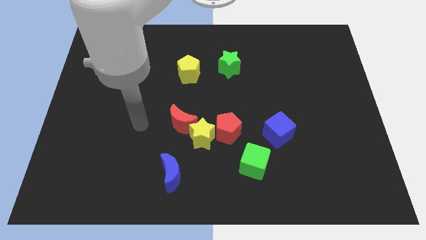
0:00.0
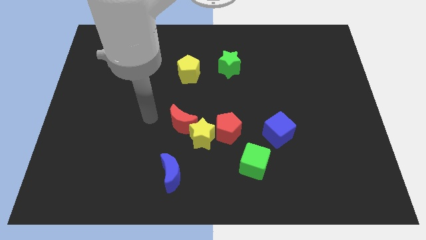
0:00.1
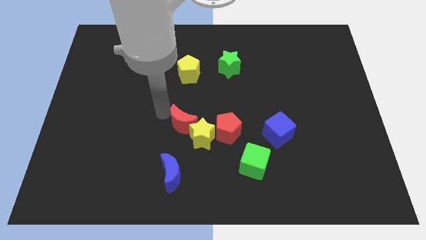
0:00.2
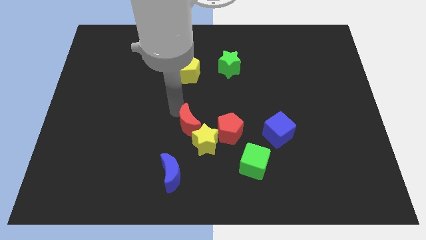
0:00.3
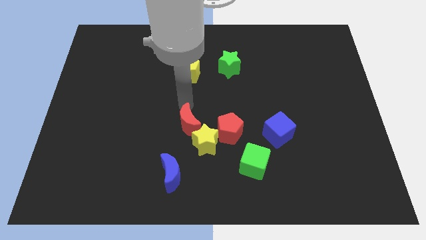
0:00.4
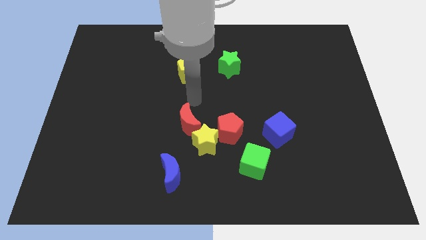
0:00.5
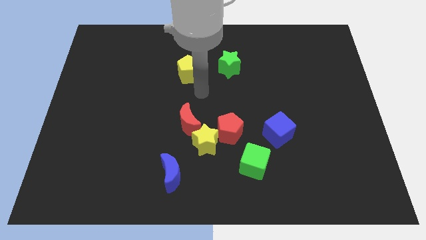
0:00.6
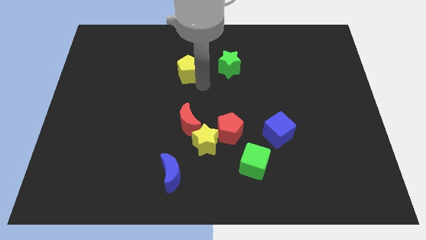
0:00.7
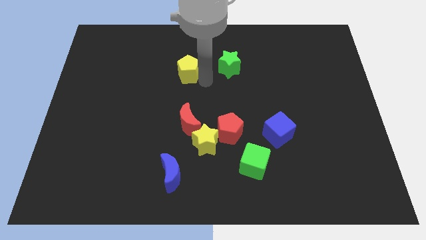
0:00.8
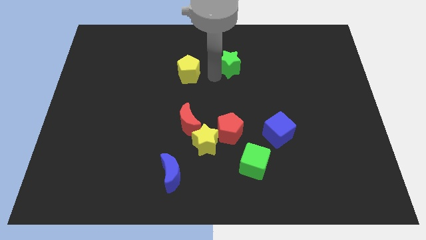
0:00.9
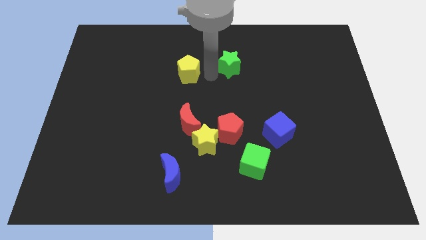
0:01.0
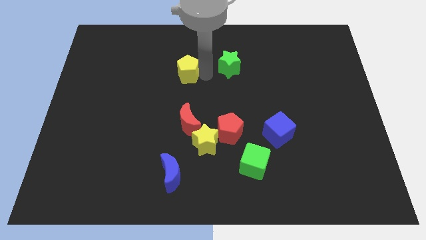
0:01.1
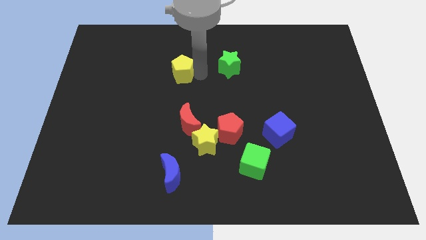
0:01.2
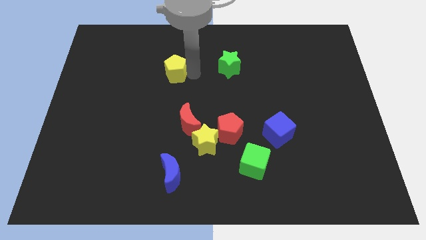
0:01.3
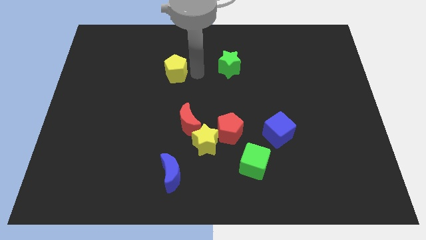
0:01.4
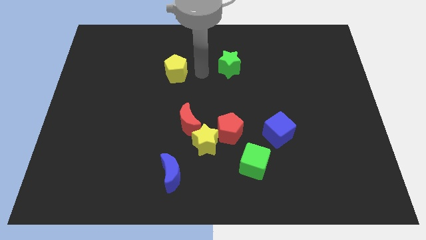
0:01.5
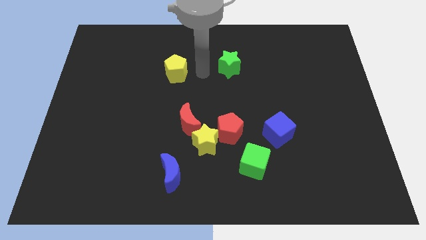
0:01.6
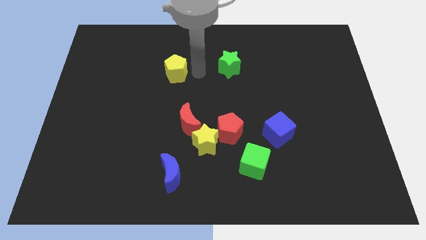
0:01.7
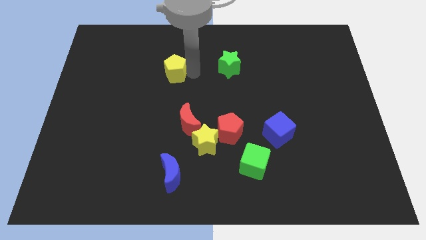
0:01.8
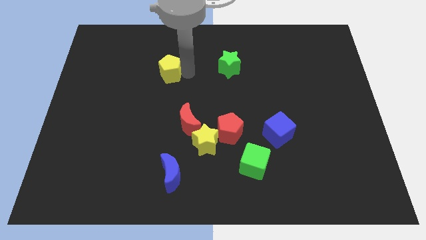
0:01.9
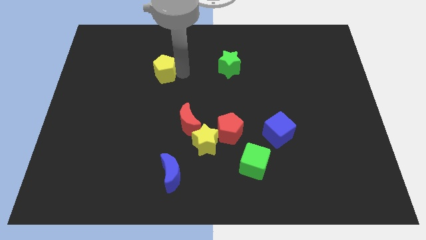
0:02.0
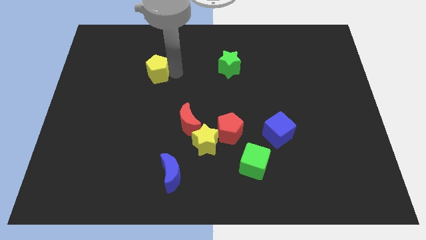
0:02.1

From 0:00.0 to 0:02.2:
push the yellow pentagon a bit to the left

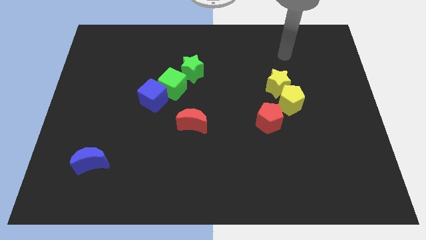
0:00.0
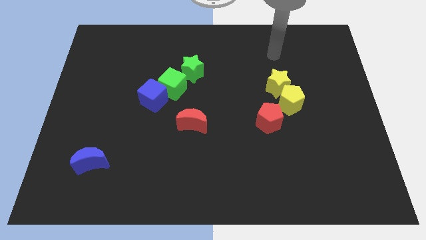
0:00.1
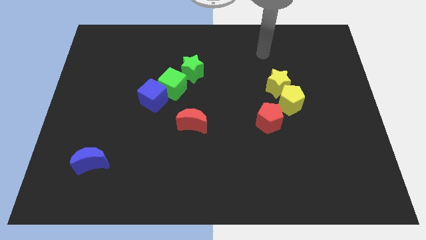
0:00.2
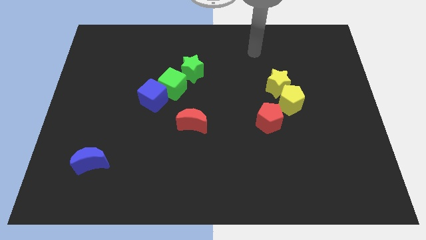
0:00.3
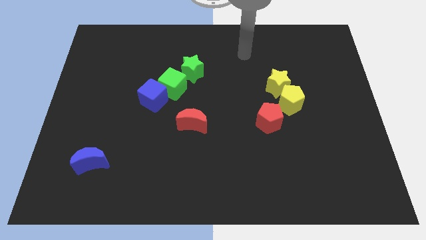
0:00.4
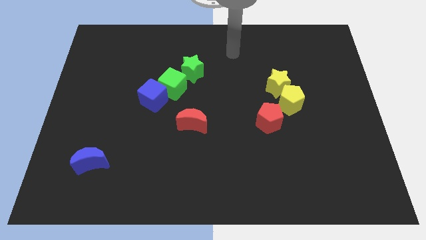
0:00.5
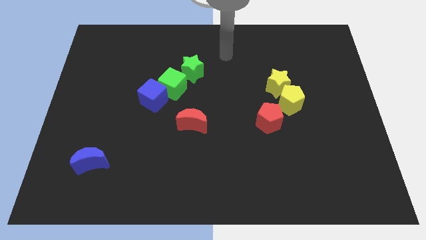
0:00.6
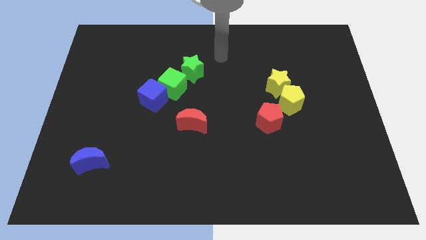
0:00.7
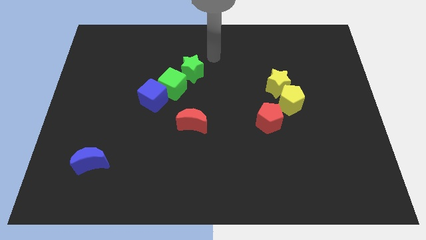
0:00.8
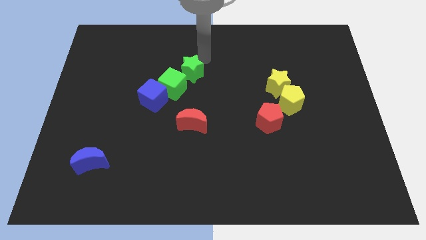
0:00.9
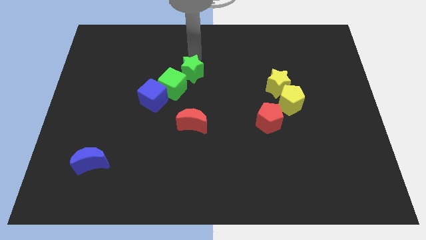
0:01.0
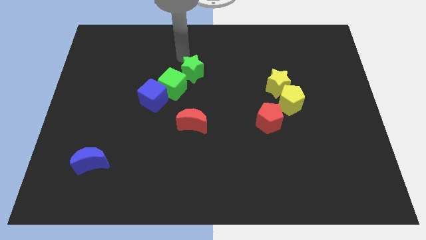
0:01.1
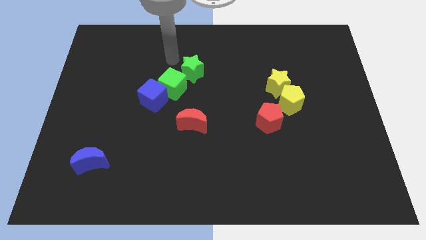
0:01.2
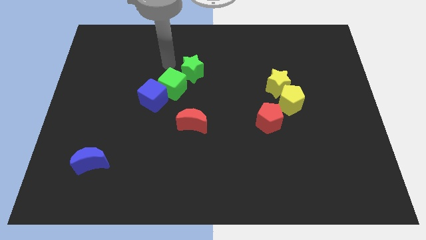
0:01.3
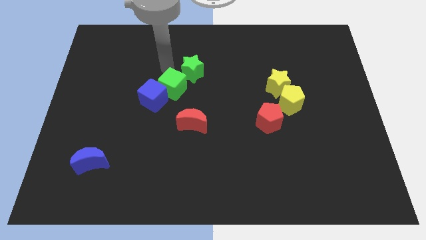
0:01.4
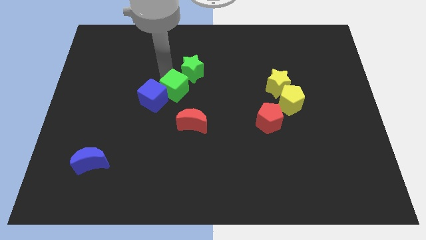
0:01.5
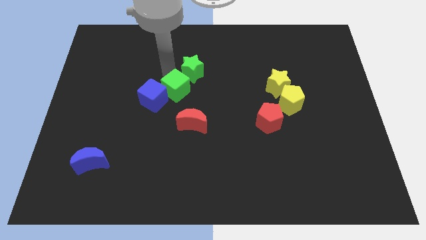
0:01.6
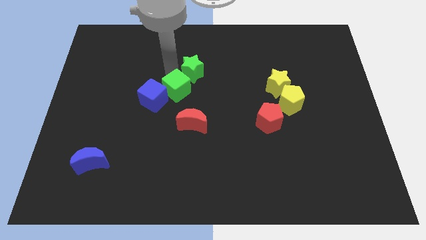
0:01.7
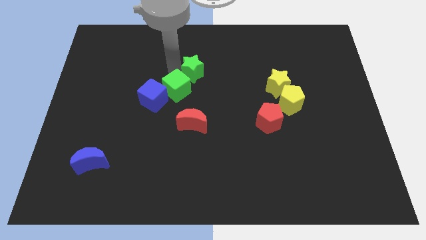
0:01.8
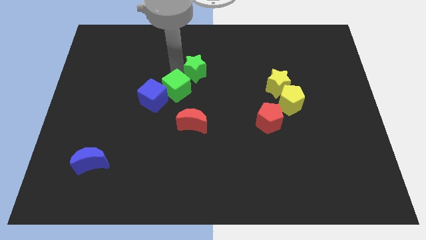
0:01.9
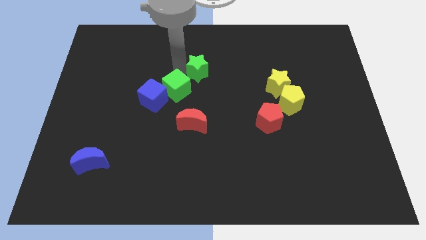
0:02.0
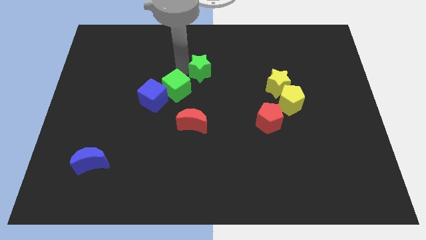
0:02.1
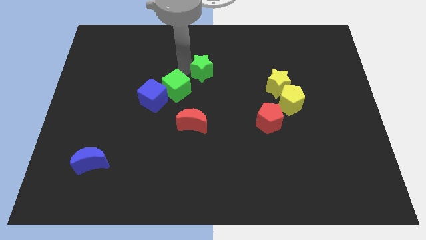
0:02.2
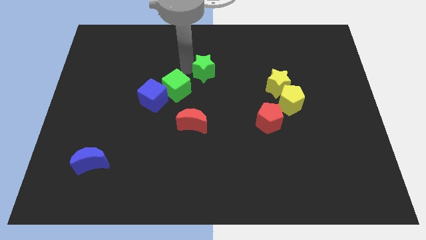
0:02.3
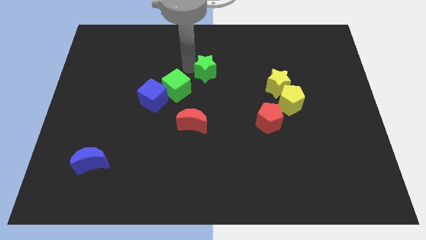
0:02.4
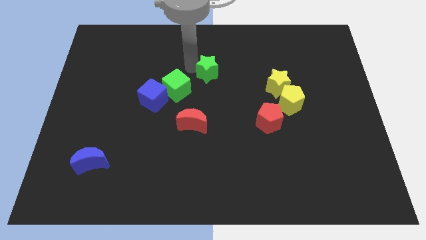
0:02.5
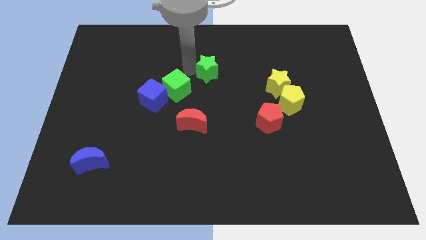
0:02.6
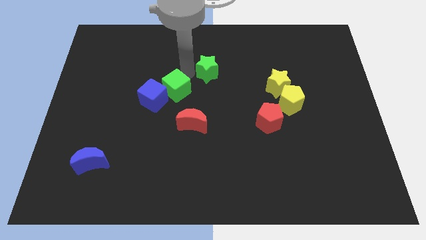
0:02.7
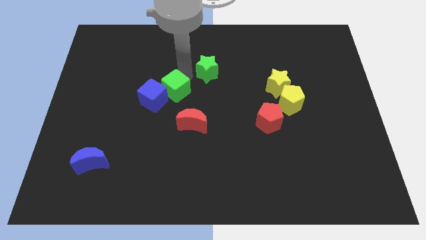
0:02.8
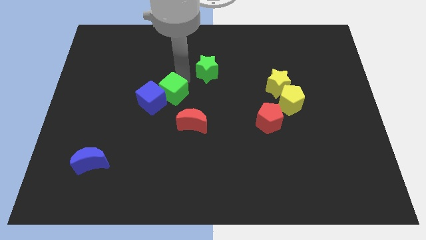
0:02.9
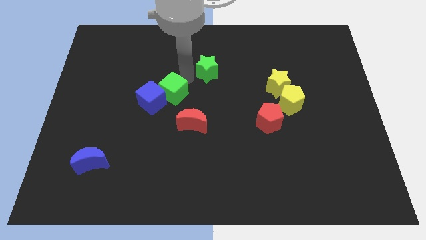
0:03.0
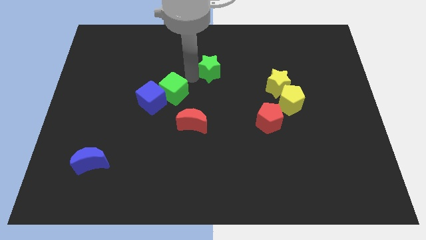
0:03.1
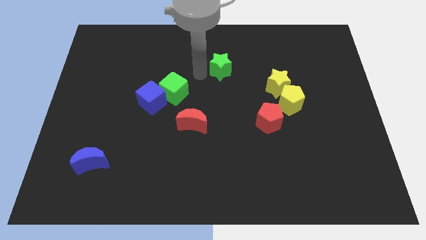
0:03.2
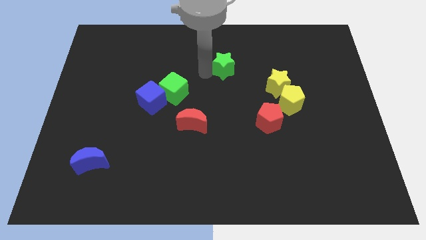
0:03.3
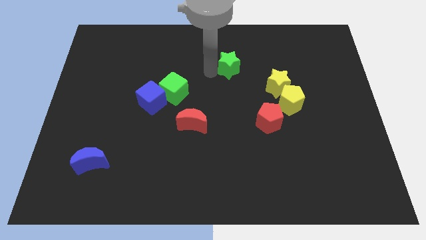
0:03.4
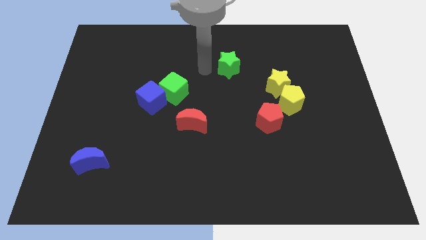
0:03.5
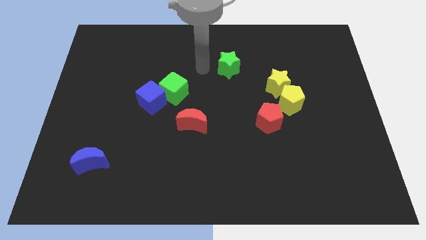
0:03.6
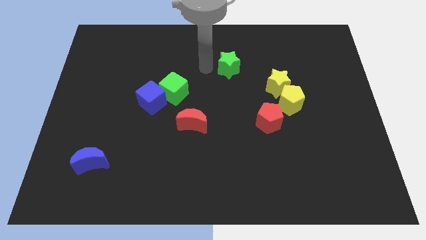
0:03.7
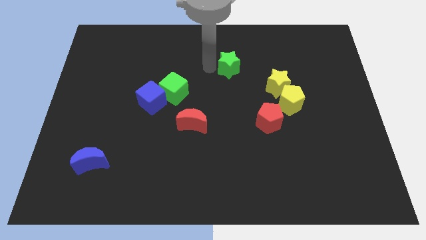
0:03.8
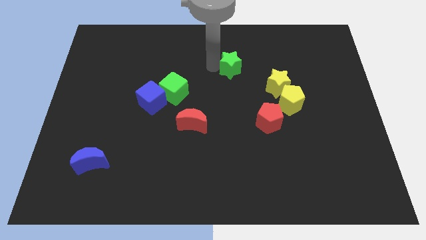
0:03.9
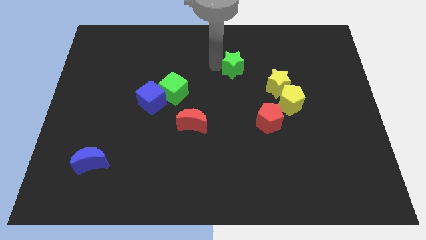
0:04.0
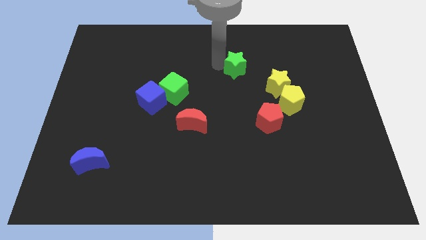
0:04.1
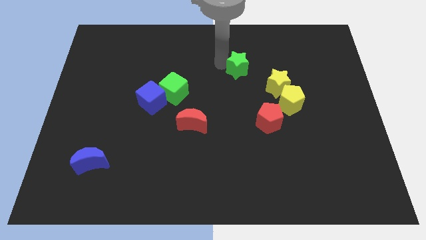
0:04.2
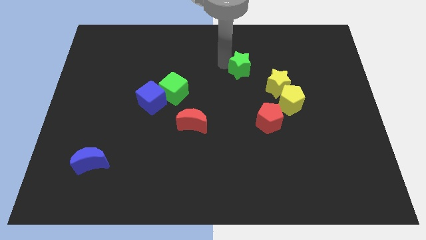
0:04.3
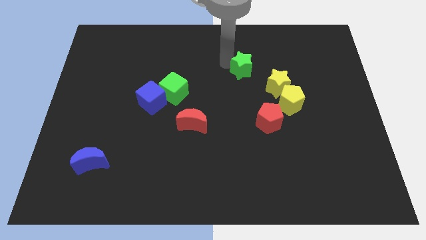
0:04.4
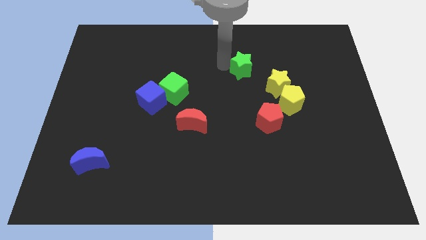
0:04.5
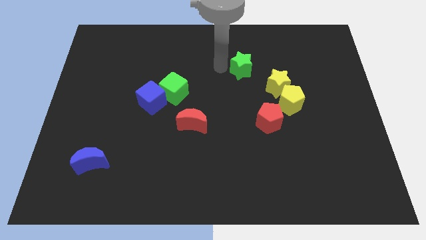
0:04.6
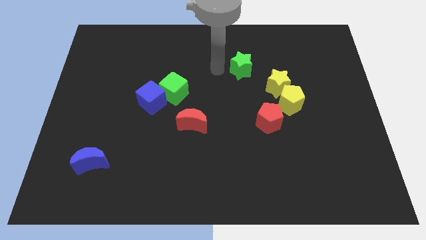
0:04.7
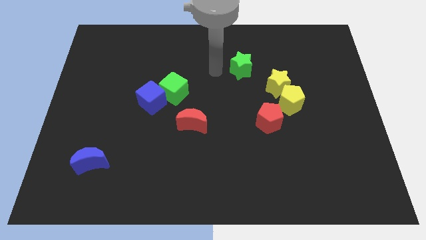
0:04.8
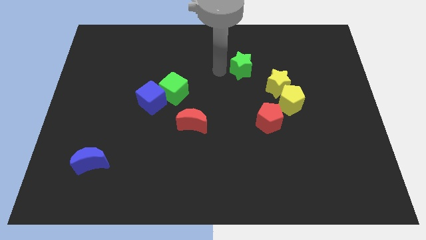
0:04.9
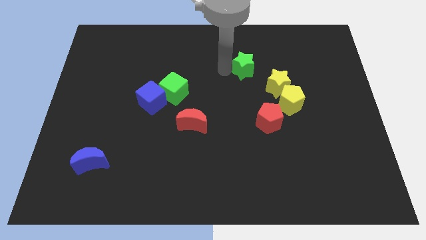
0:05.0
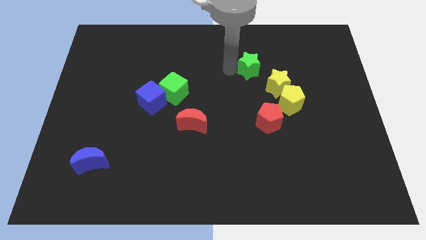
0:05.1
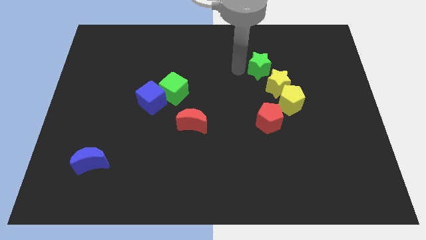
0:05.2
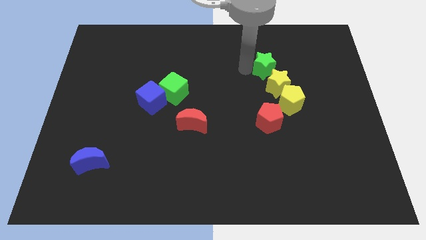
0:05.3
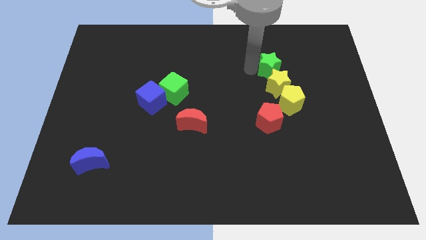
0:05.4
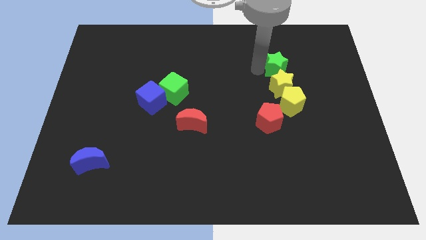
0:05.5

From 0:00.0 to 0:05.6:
slide the green star right

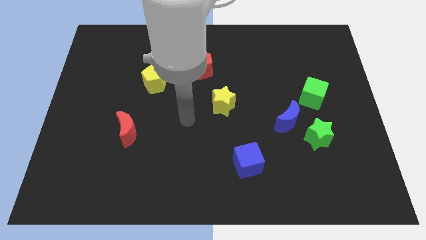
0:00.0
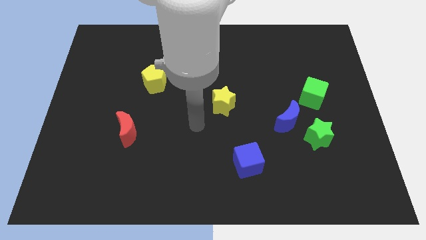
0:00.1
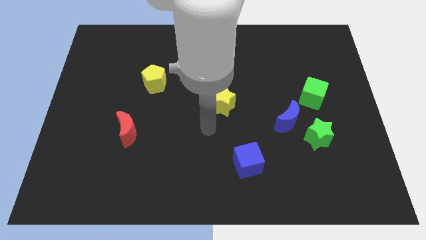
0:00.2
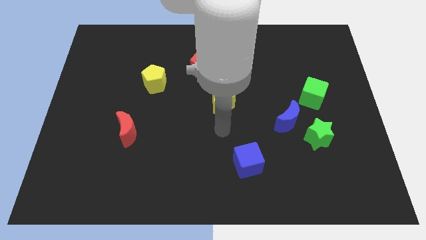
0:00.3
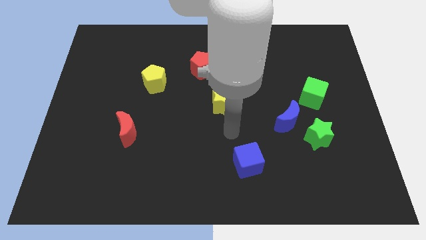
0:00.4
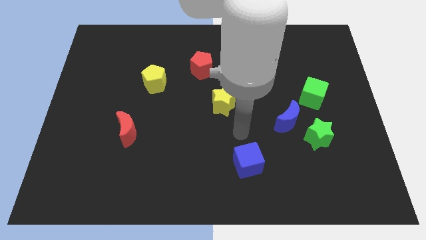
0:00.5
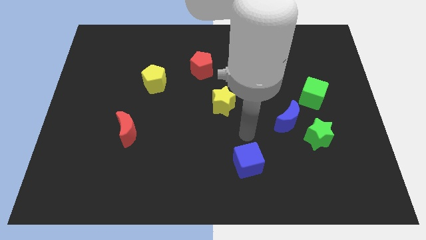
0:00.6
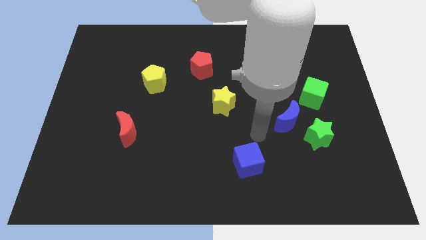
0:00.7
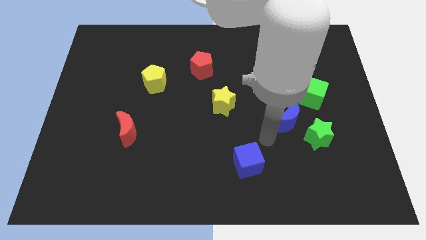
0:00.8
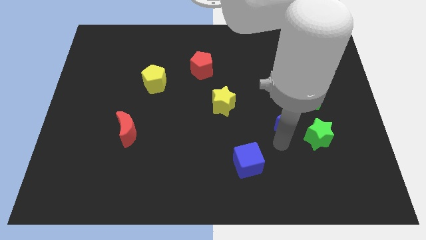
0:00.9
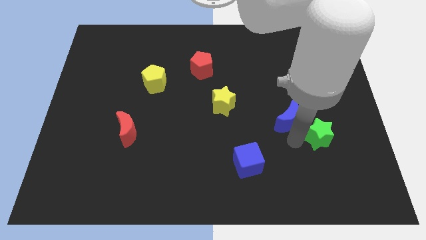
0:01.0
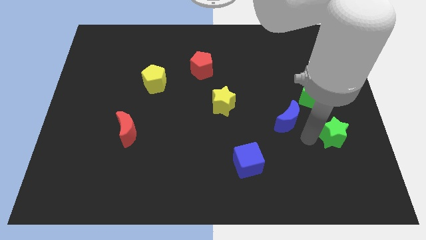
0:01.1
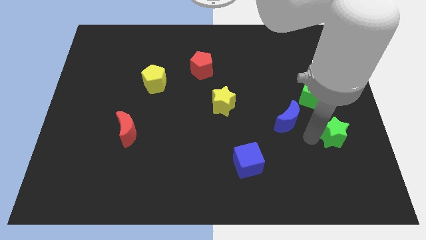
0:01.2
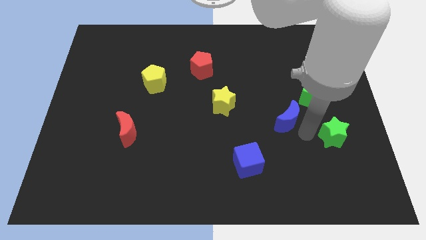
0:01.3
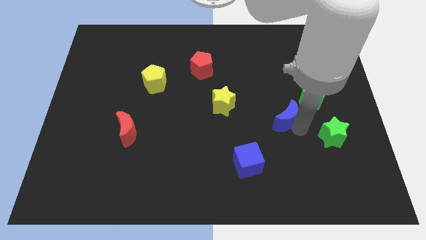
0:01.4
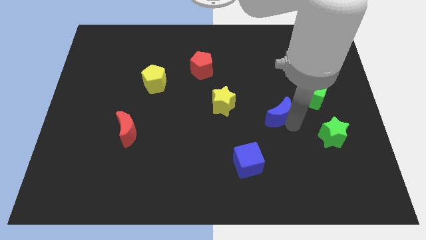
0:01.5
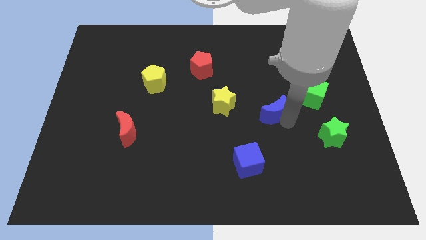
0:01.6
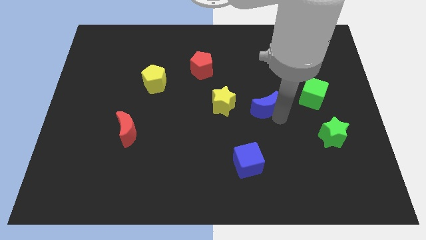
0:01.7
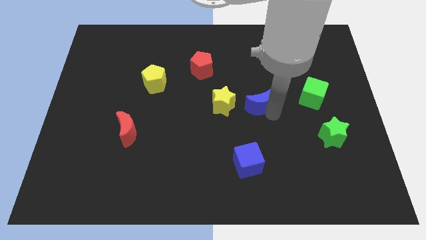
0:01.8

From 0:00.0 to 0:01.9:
push the blue moon diagonally upwards and to the left a little bit
